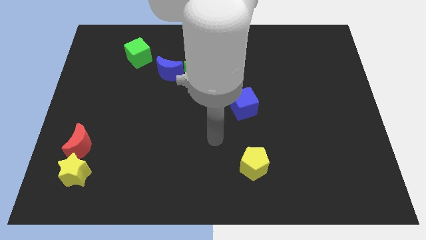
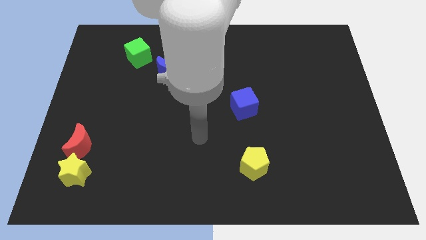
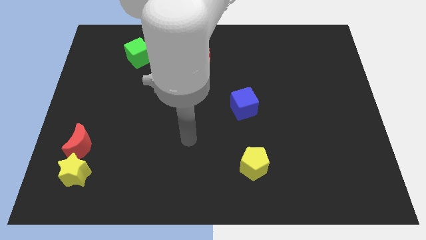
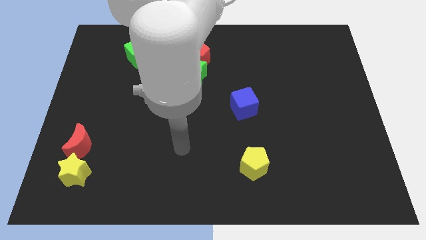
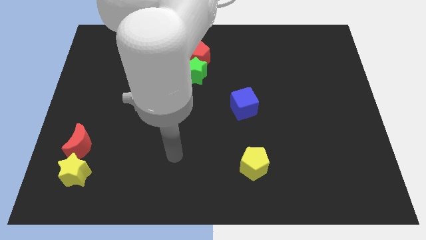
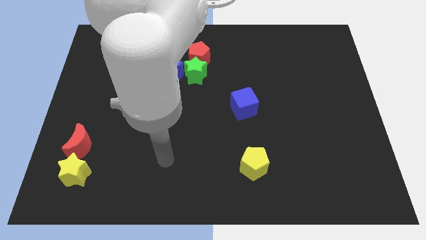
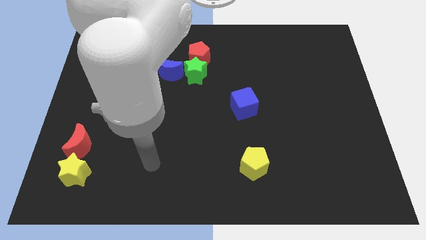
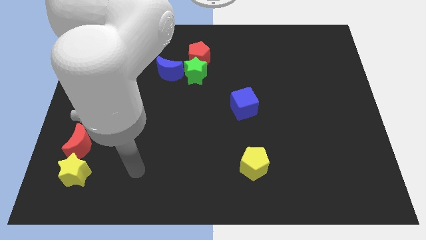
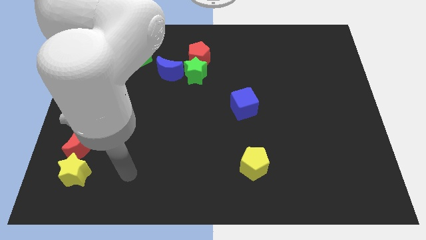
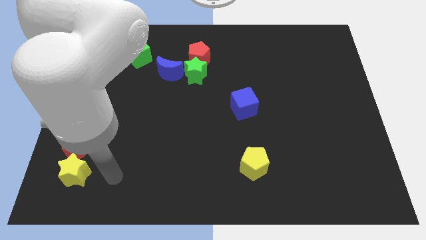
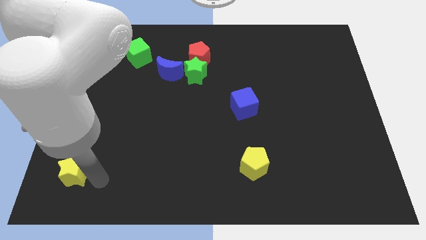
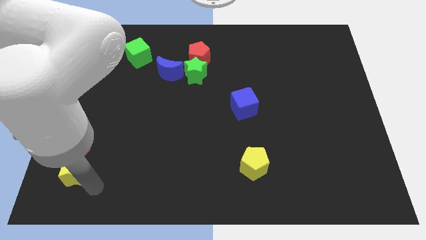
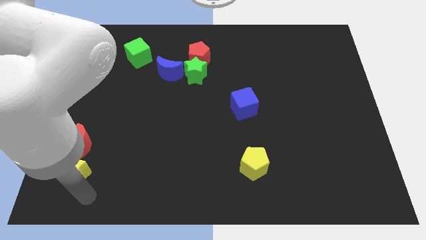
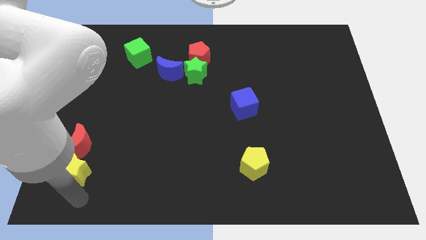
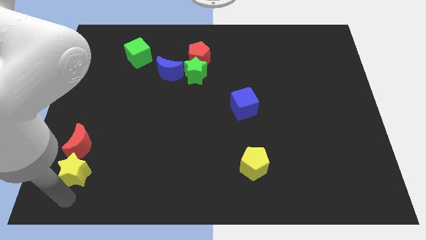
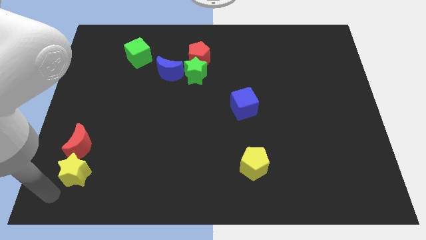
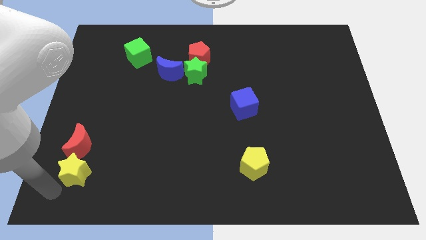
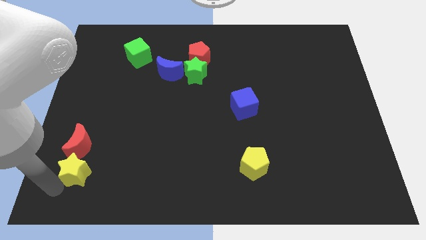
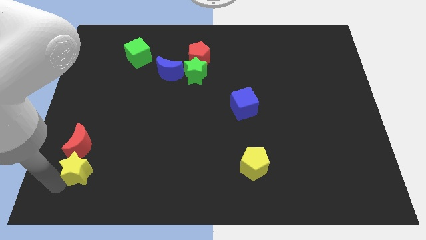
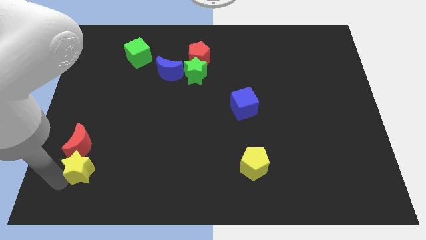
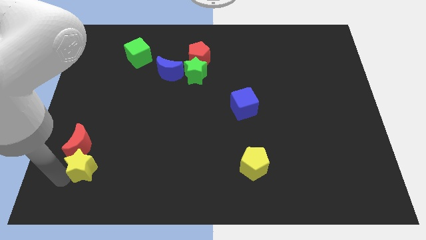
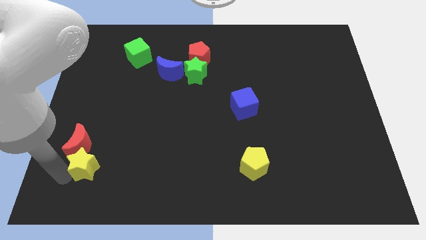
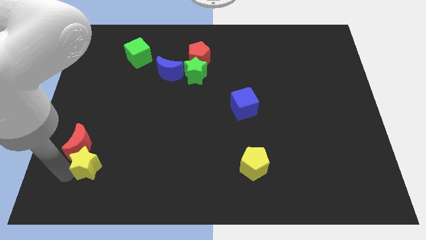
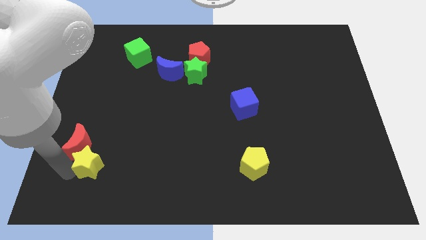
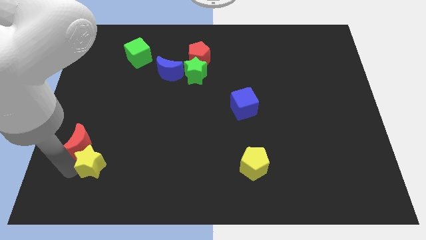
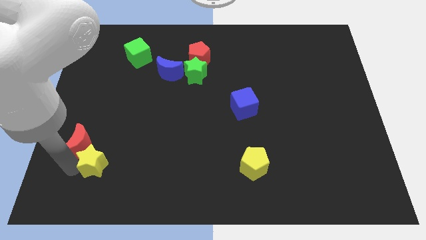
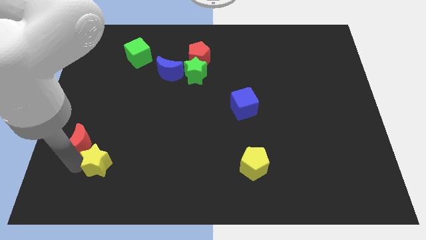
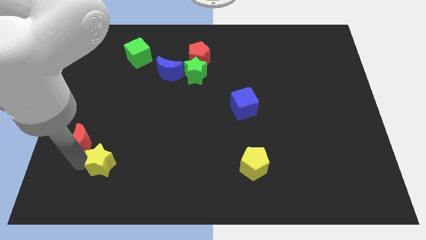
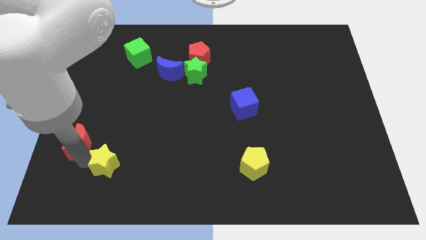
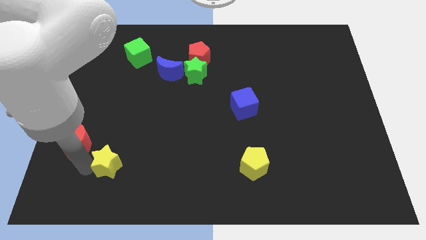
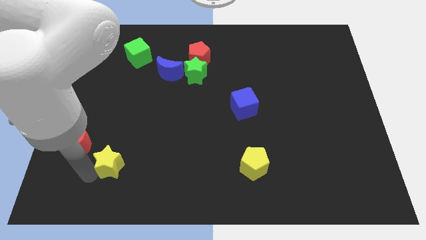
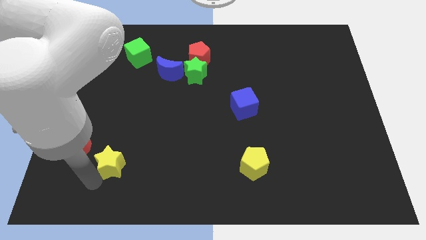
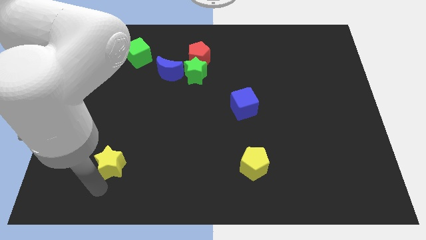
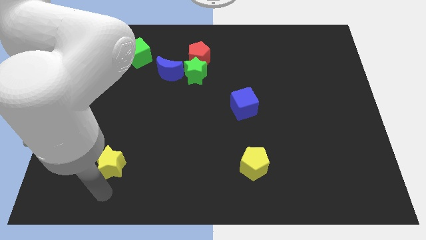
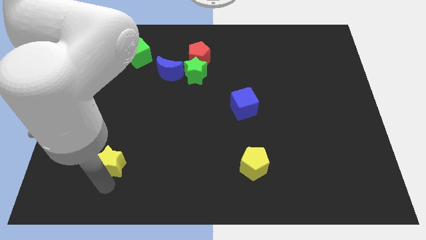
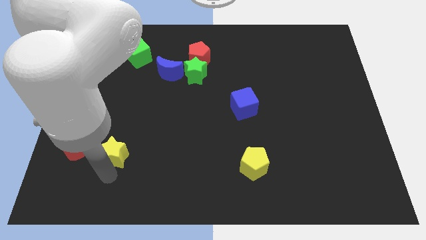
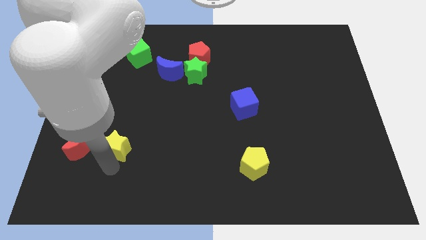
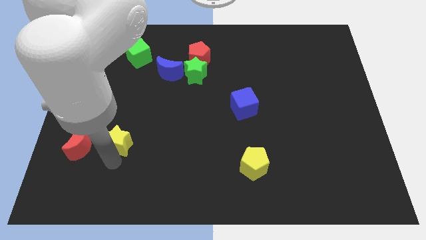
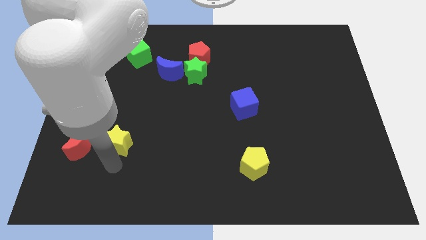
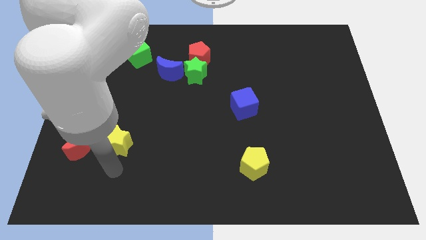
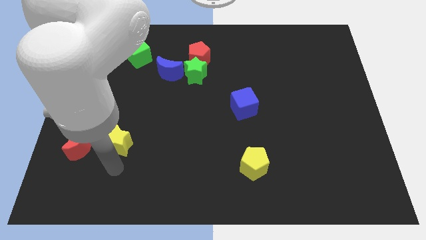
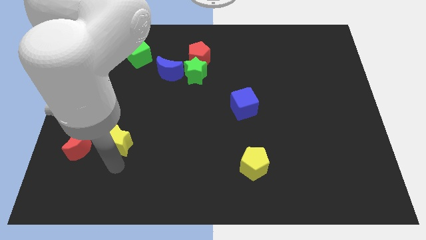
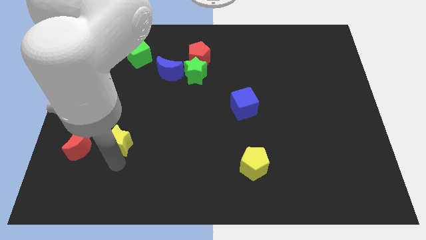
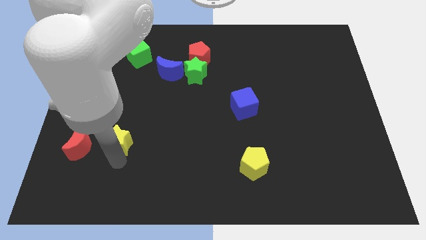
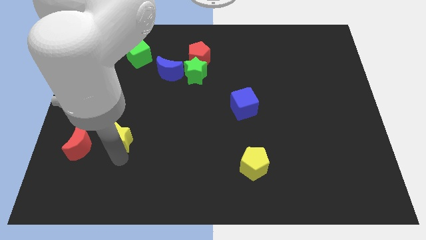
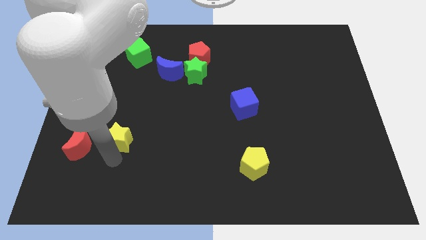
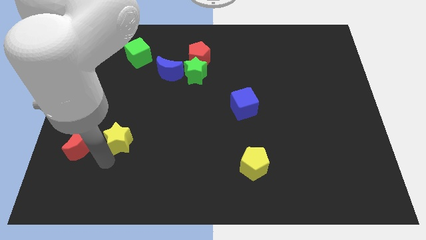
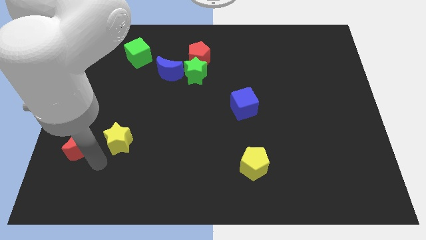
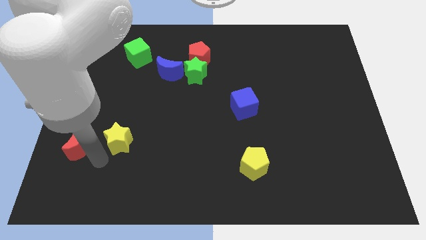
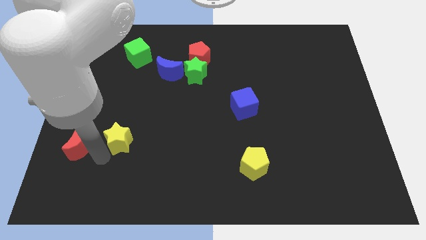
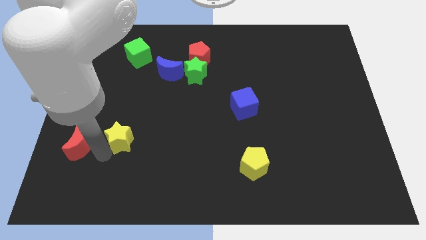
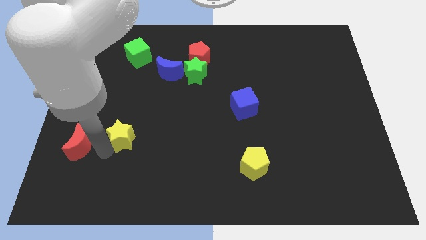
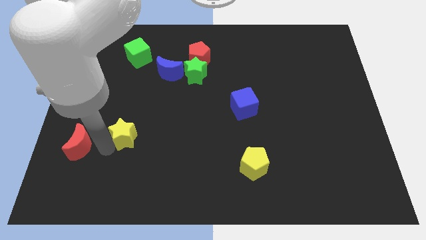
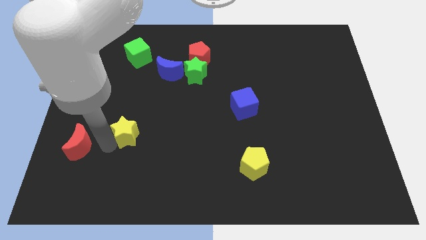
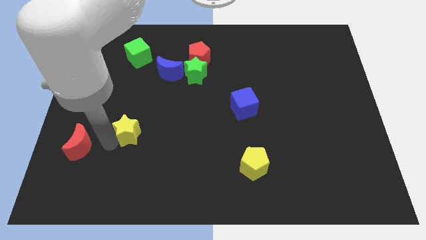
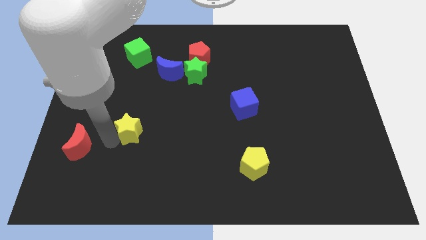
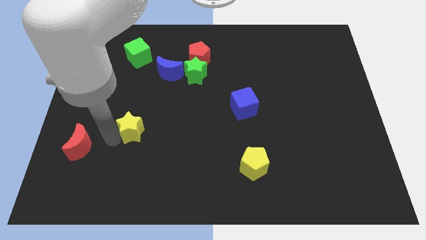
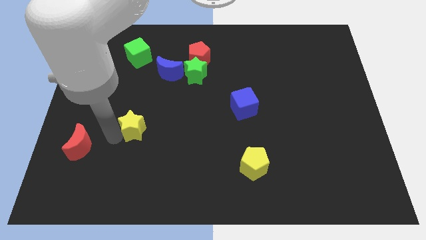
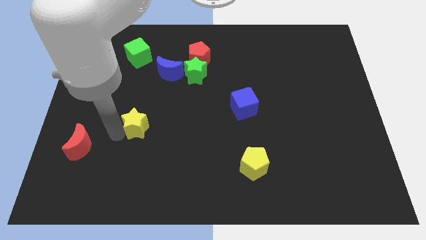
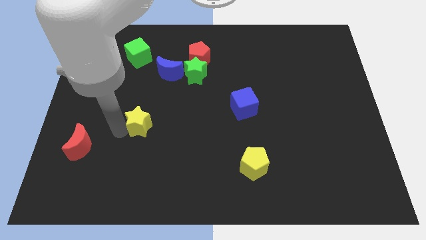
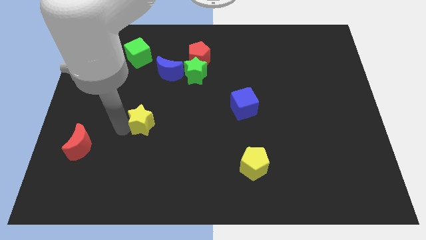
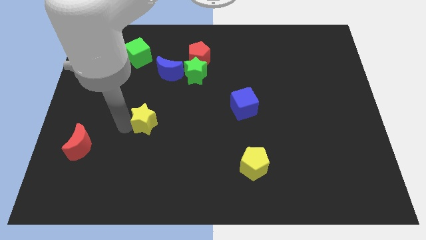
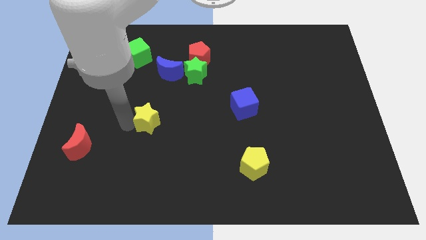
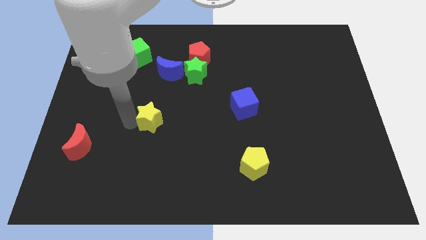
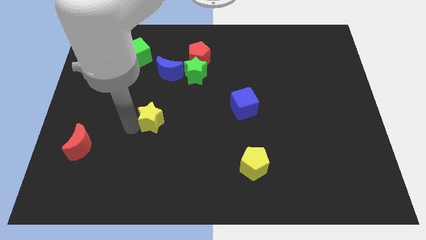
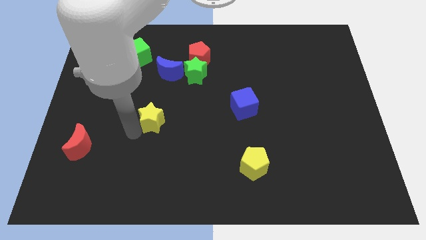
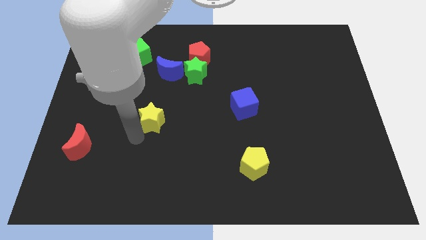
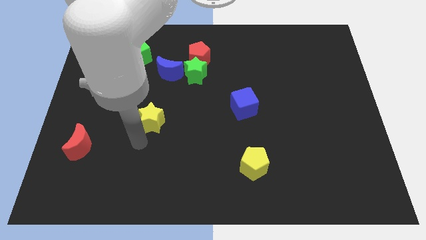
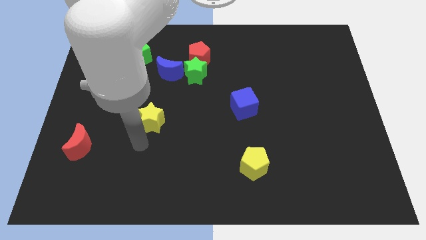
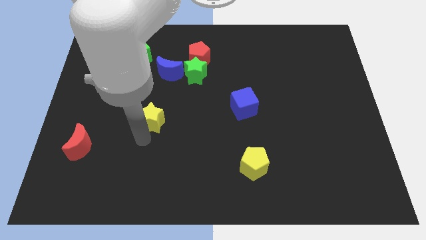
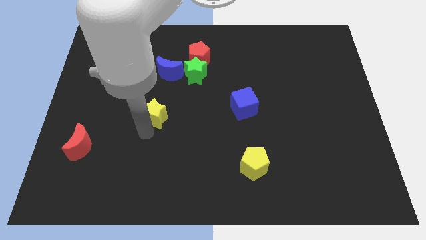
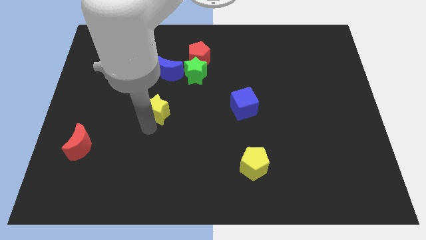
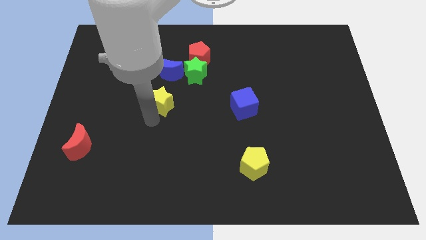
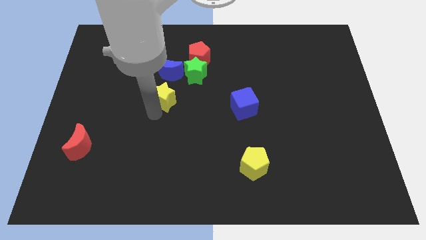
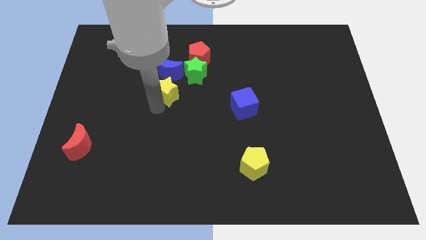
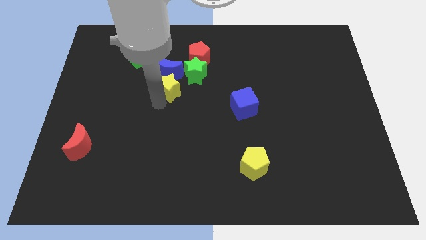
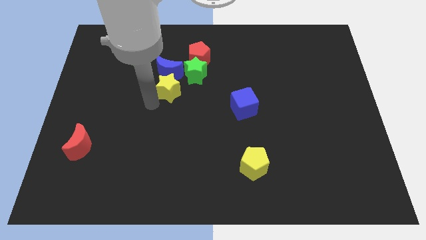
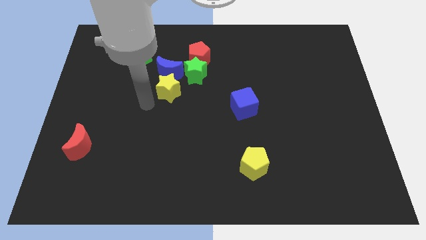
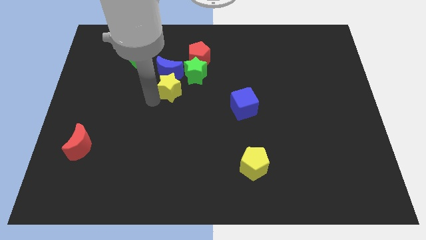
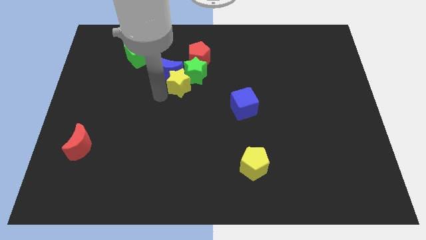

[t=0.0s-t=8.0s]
slide the yellow star to the green star
